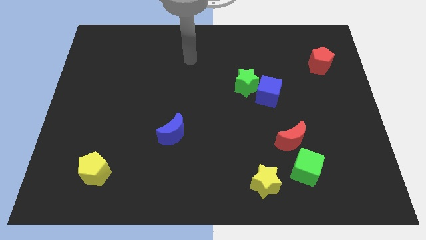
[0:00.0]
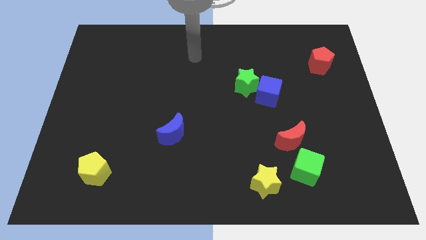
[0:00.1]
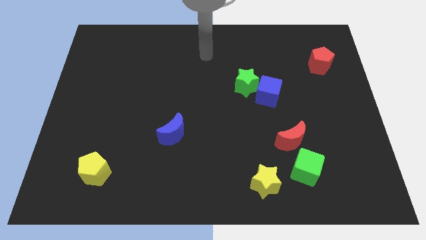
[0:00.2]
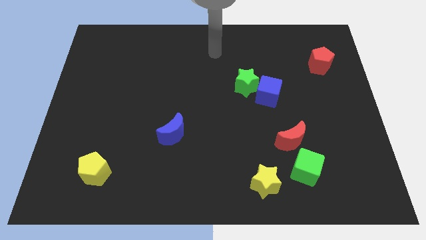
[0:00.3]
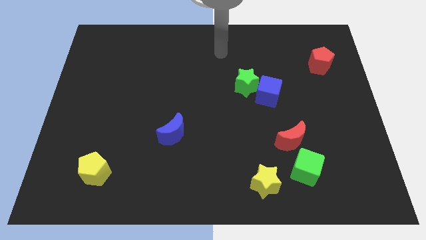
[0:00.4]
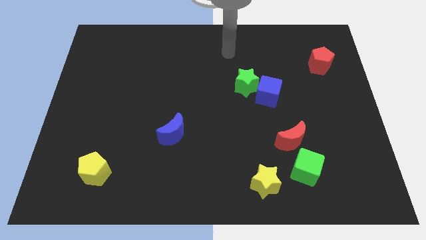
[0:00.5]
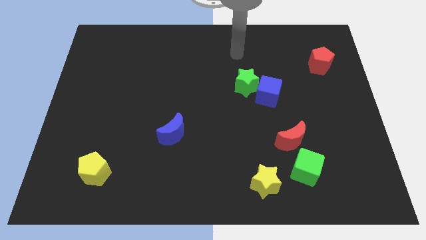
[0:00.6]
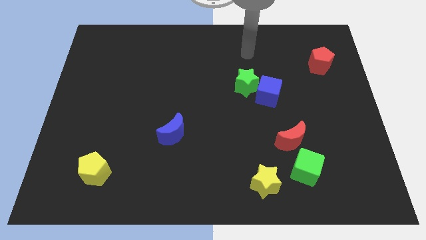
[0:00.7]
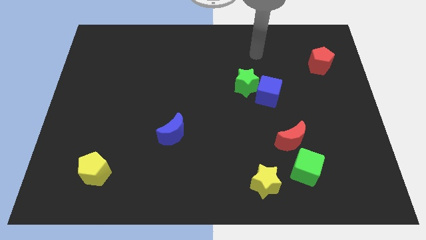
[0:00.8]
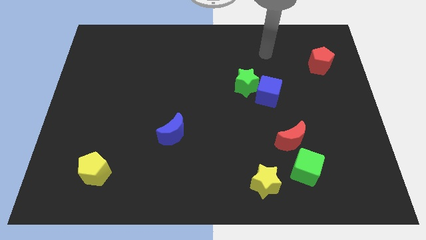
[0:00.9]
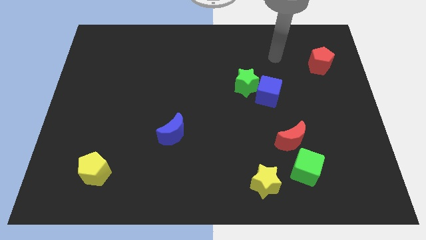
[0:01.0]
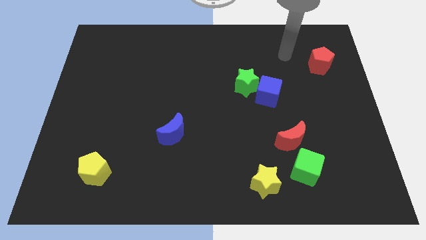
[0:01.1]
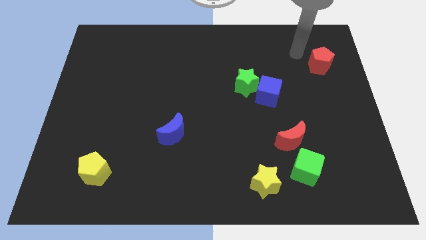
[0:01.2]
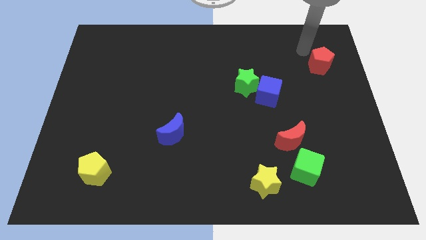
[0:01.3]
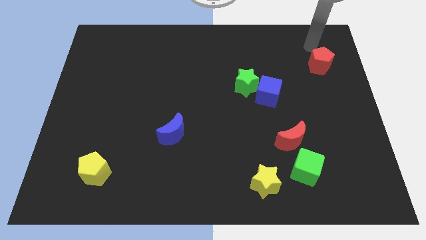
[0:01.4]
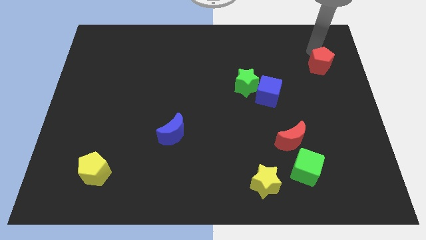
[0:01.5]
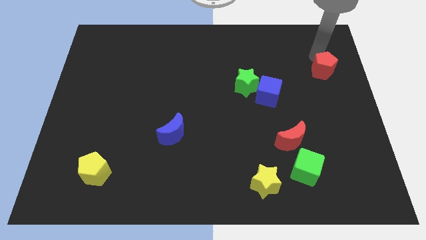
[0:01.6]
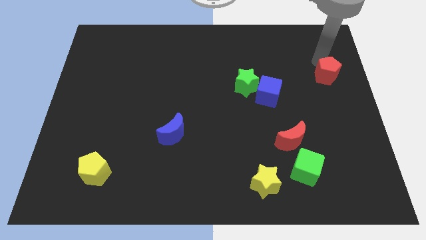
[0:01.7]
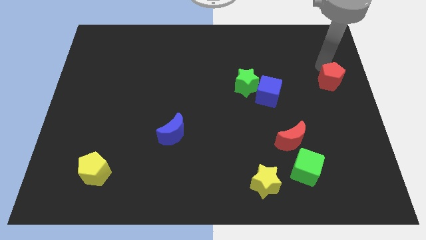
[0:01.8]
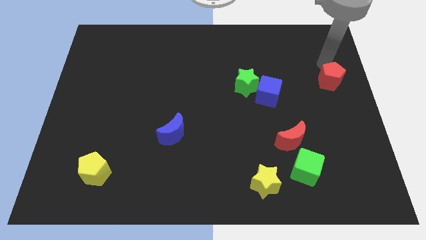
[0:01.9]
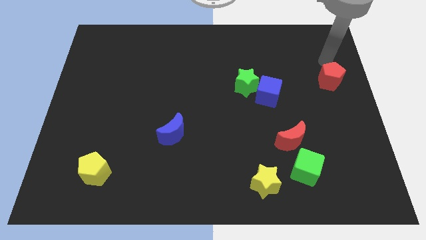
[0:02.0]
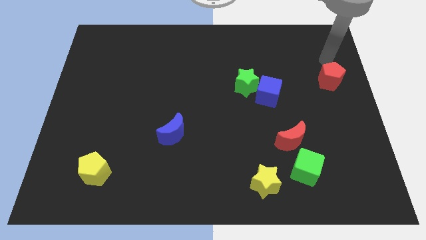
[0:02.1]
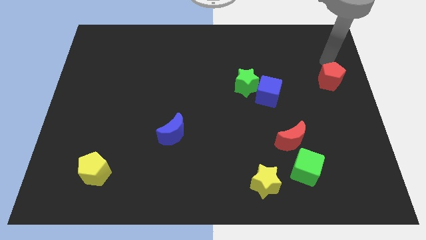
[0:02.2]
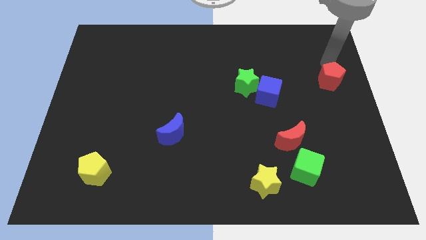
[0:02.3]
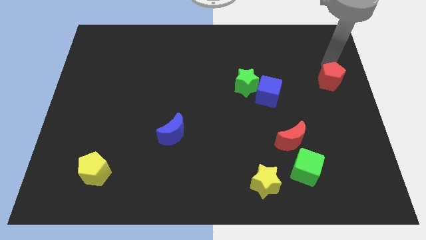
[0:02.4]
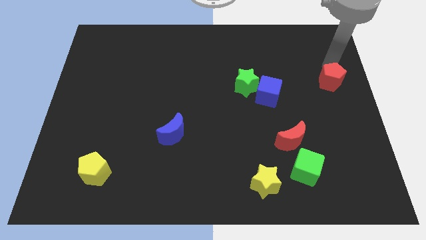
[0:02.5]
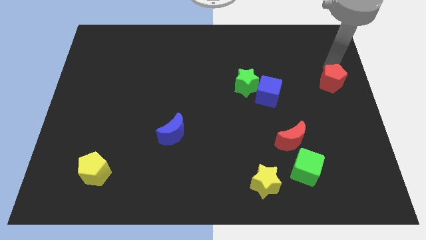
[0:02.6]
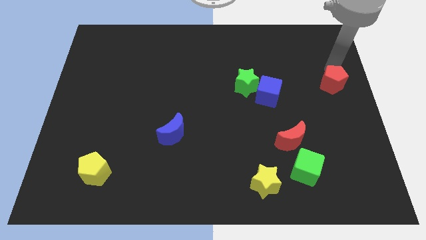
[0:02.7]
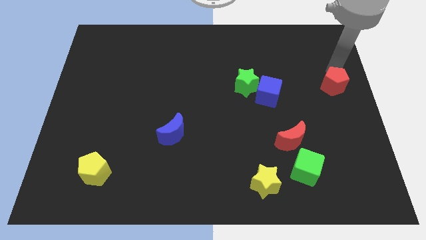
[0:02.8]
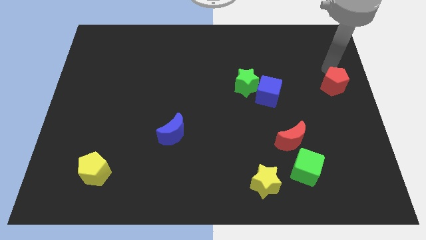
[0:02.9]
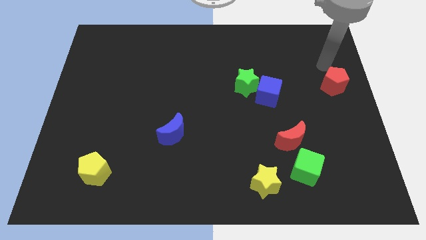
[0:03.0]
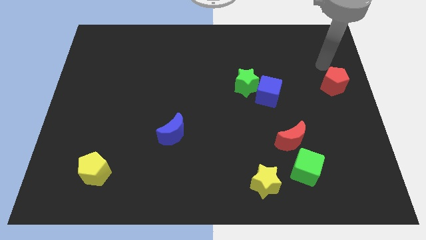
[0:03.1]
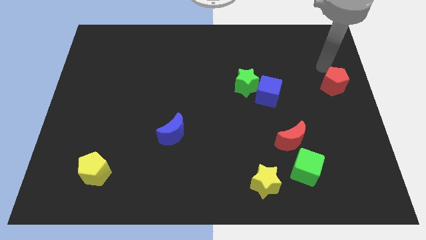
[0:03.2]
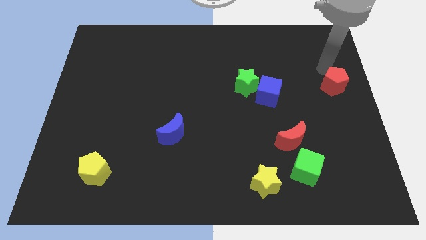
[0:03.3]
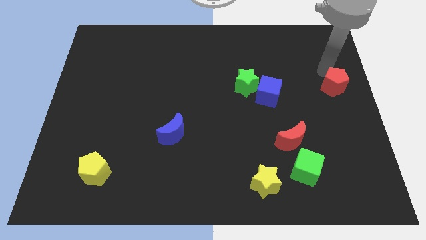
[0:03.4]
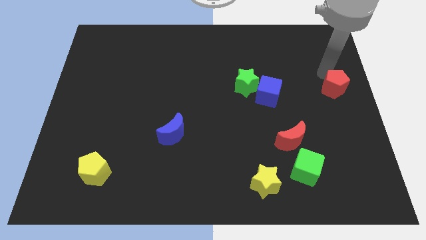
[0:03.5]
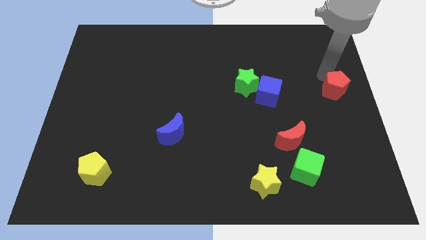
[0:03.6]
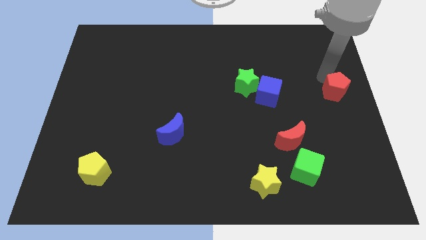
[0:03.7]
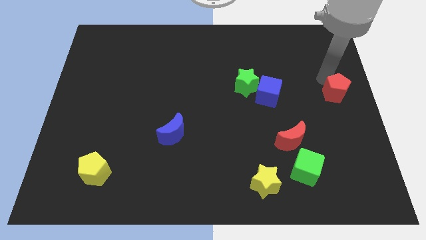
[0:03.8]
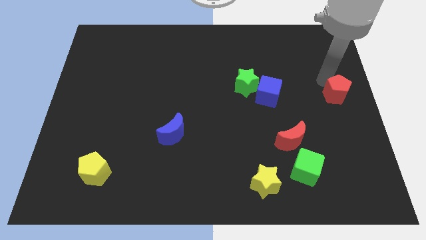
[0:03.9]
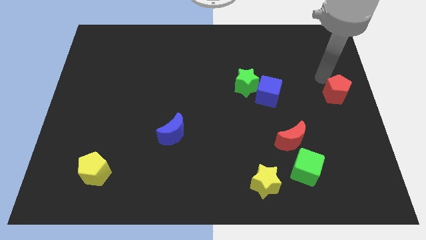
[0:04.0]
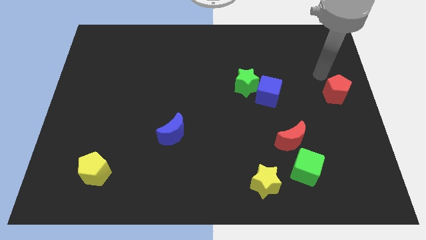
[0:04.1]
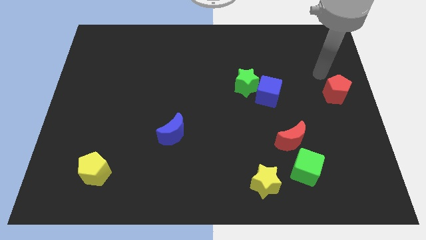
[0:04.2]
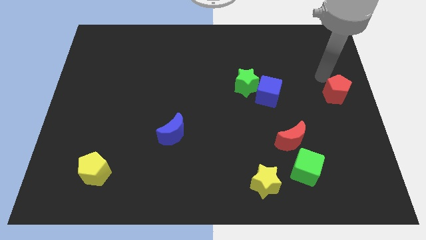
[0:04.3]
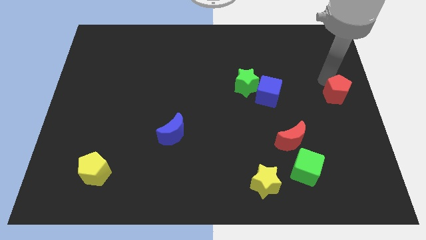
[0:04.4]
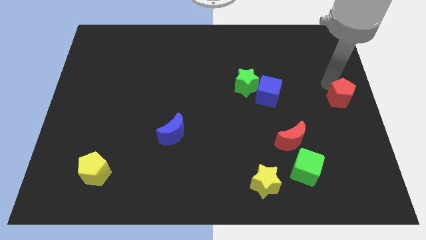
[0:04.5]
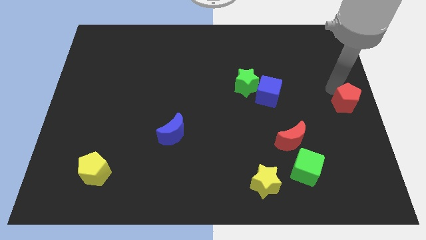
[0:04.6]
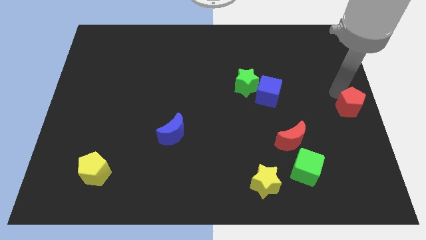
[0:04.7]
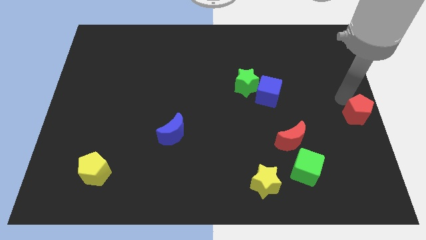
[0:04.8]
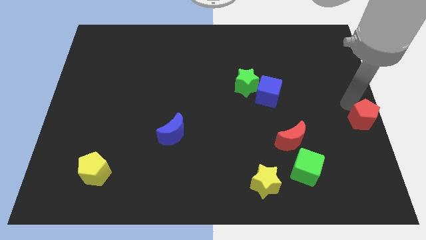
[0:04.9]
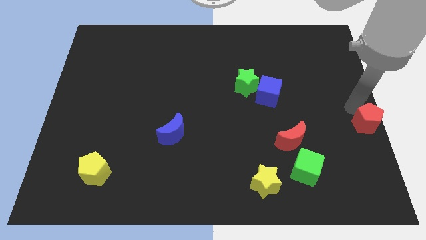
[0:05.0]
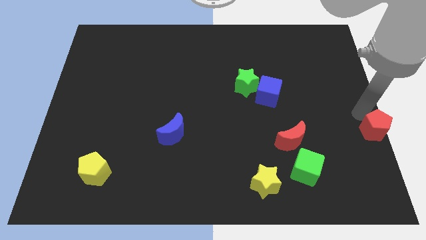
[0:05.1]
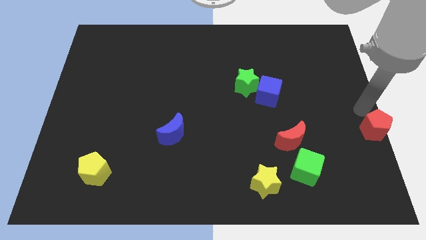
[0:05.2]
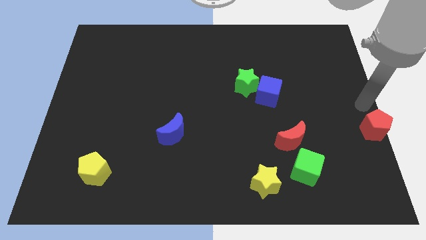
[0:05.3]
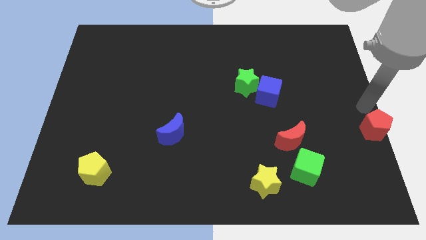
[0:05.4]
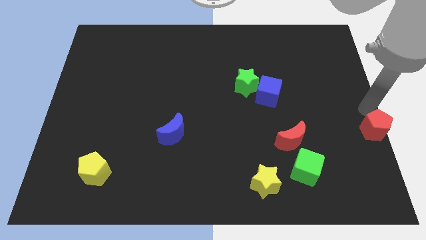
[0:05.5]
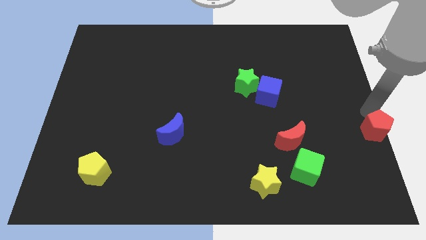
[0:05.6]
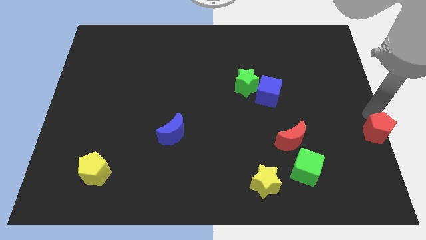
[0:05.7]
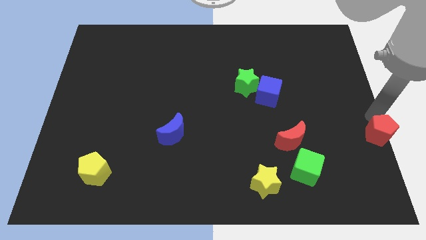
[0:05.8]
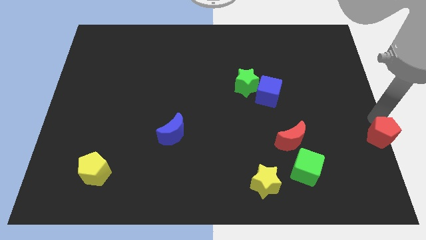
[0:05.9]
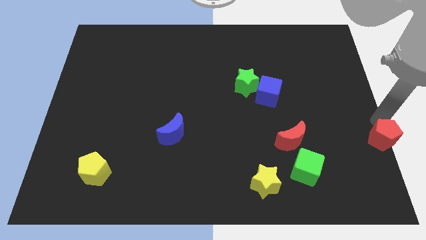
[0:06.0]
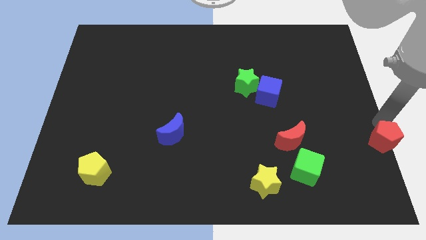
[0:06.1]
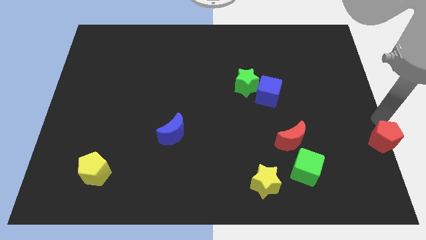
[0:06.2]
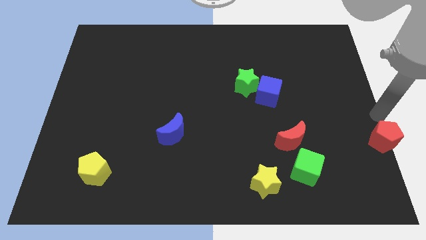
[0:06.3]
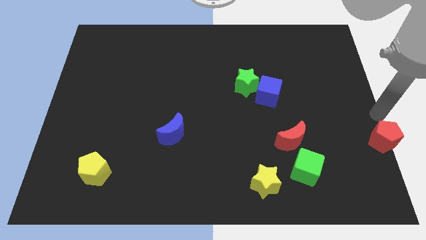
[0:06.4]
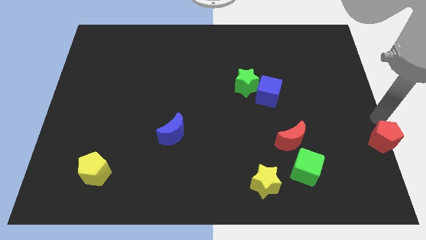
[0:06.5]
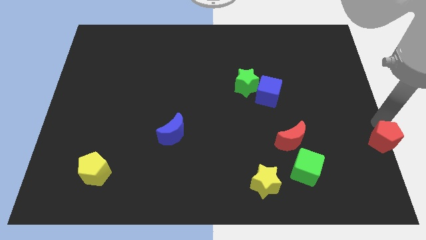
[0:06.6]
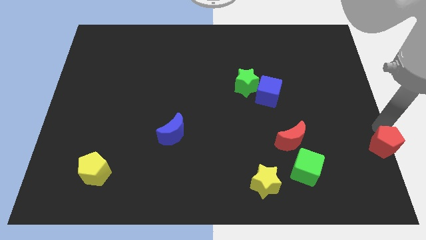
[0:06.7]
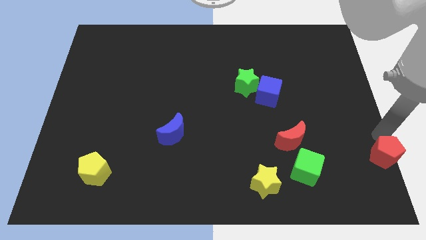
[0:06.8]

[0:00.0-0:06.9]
slide the red pentagon to the bottom right
